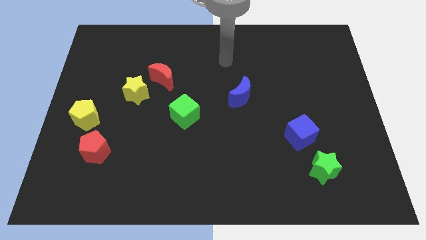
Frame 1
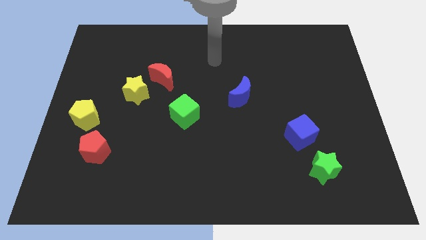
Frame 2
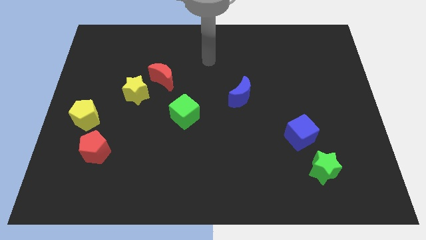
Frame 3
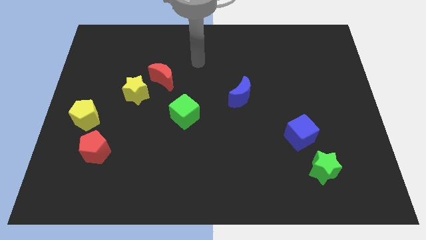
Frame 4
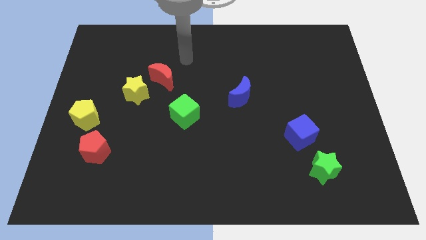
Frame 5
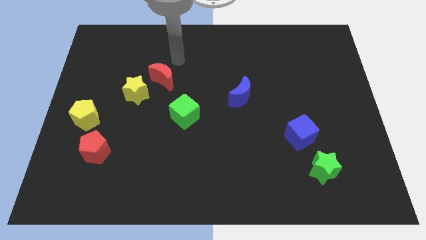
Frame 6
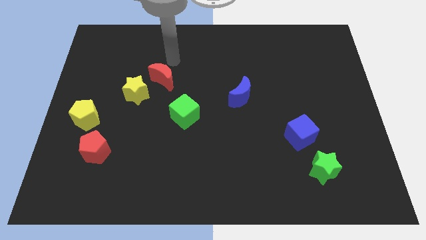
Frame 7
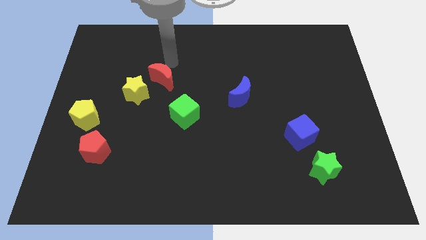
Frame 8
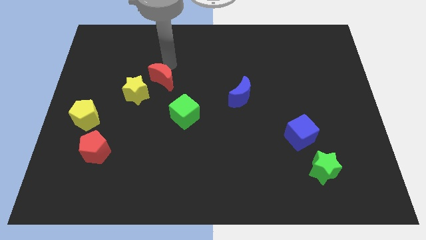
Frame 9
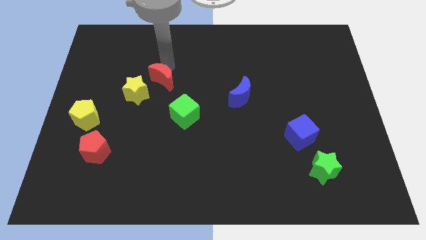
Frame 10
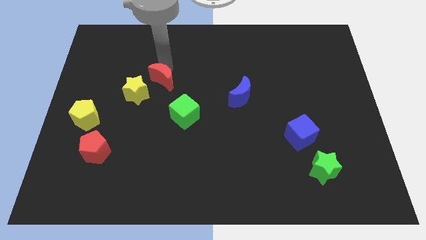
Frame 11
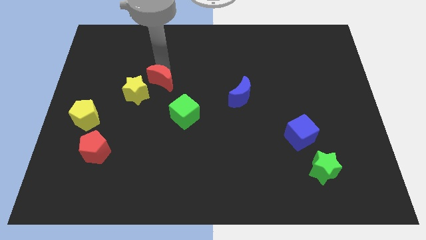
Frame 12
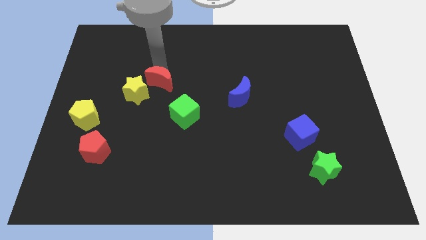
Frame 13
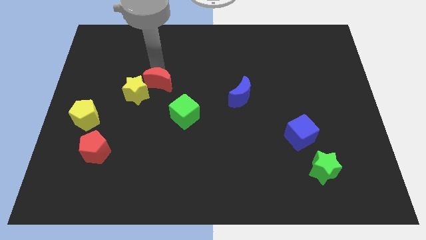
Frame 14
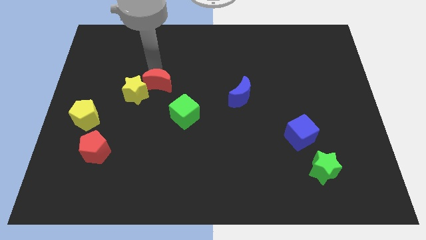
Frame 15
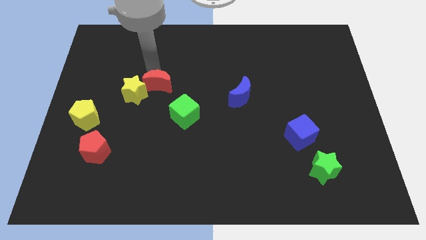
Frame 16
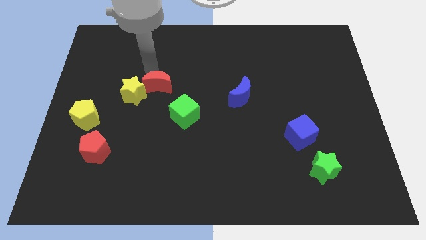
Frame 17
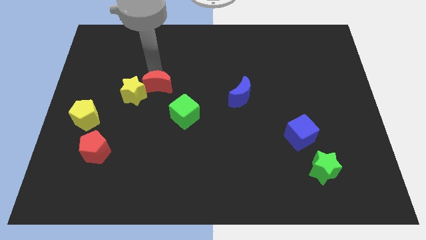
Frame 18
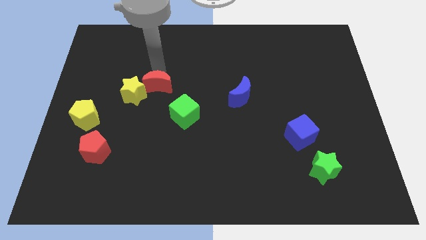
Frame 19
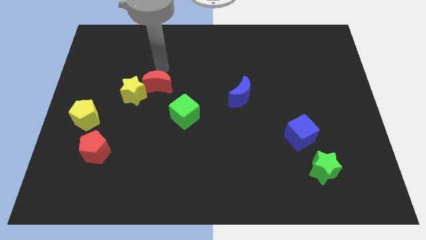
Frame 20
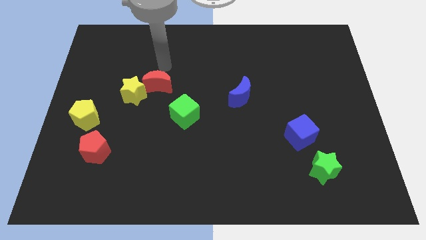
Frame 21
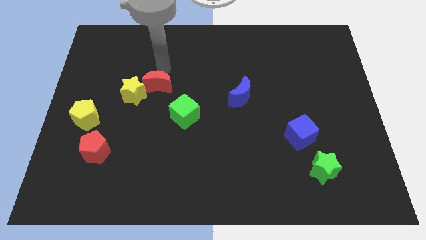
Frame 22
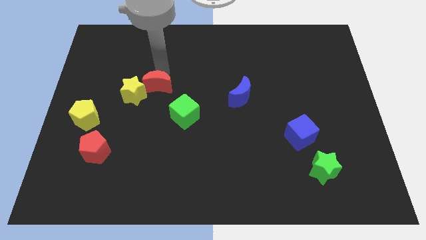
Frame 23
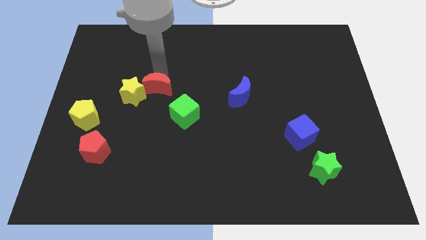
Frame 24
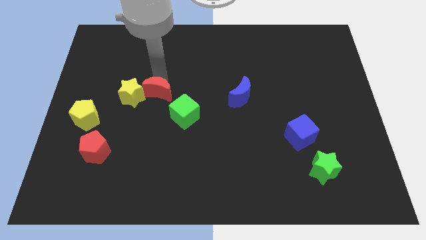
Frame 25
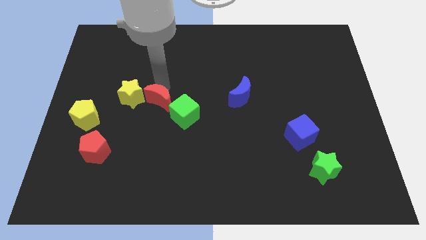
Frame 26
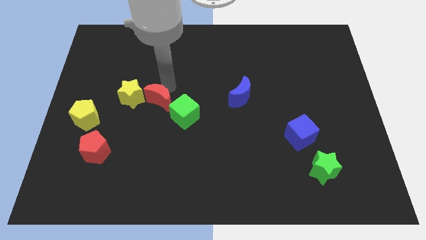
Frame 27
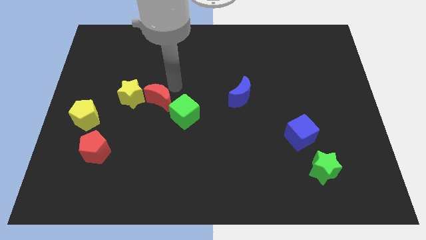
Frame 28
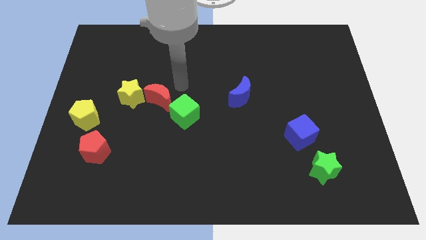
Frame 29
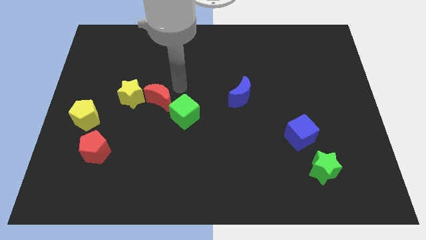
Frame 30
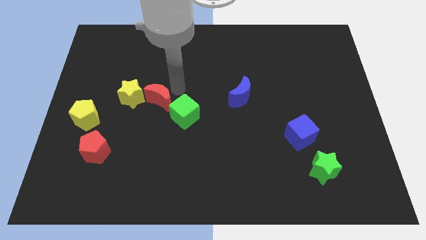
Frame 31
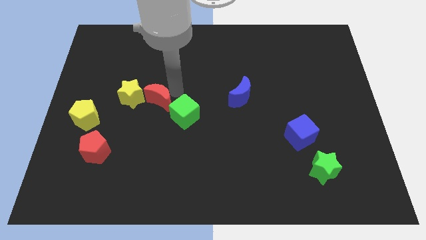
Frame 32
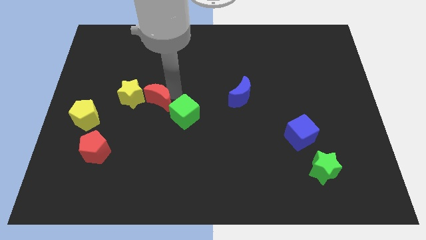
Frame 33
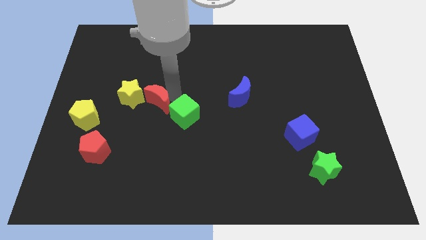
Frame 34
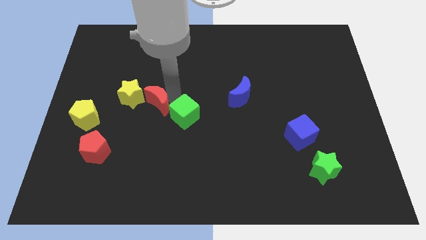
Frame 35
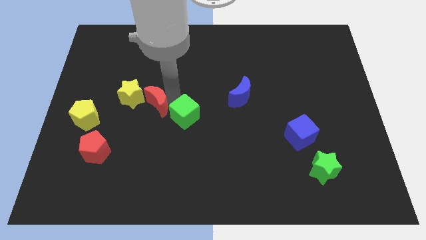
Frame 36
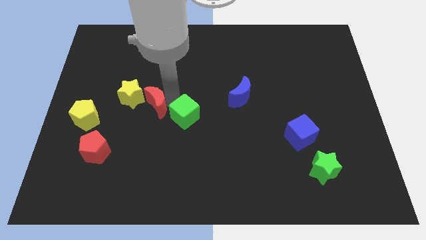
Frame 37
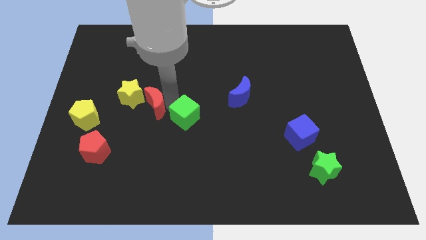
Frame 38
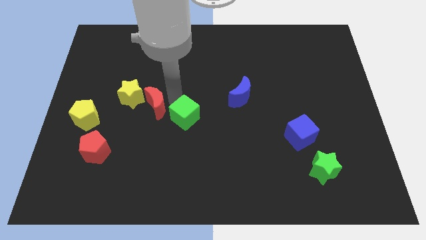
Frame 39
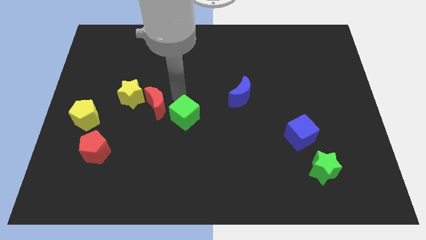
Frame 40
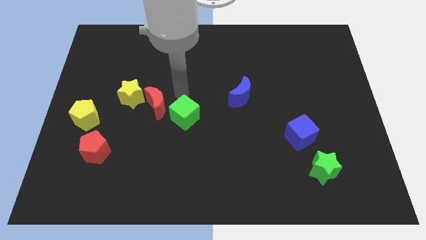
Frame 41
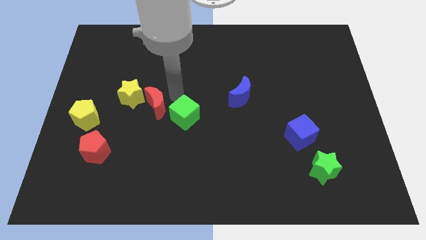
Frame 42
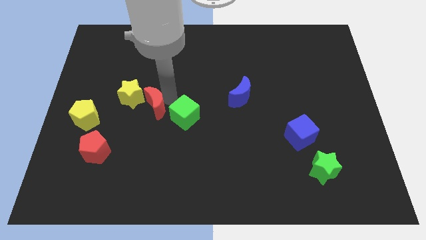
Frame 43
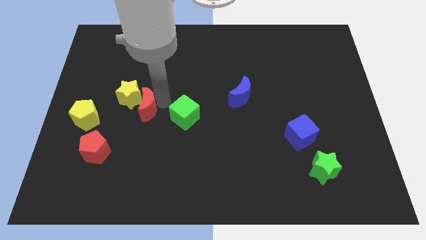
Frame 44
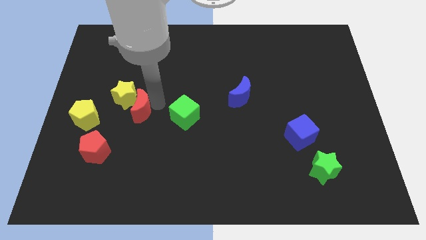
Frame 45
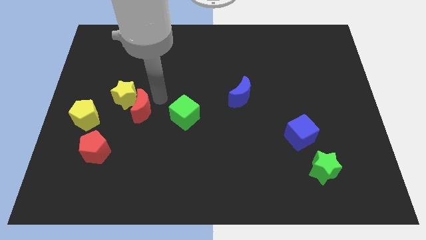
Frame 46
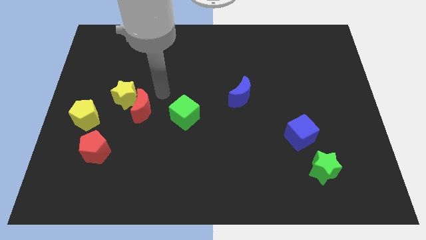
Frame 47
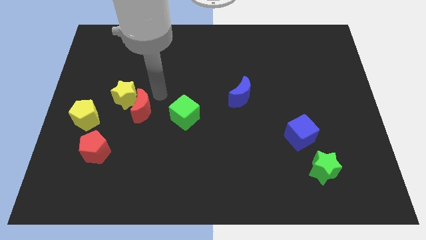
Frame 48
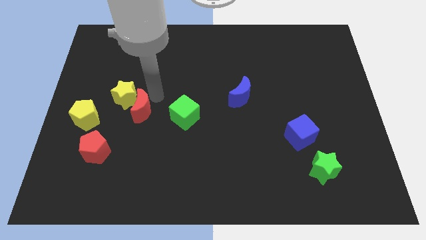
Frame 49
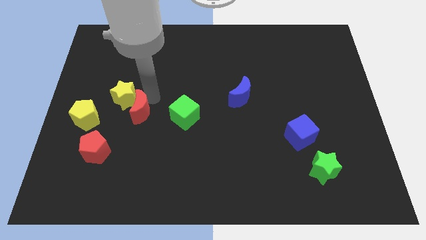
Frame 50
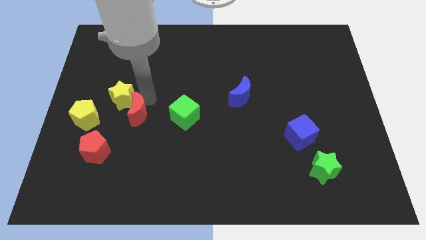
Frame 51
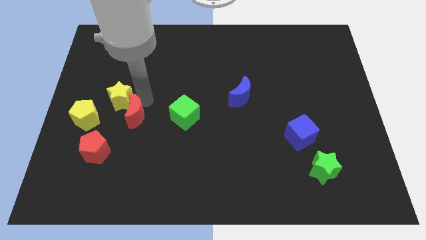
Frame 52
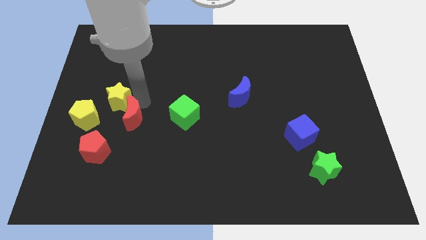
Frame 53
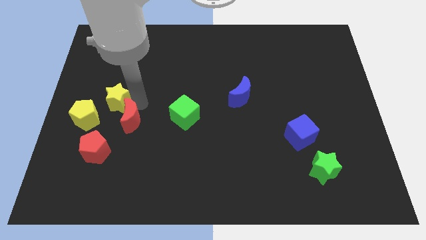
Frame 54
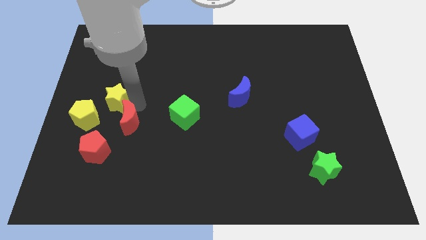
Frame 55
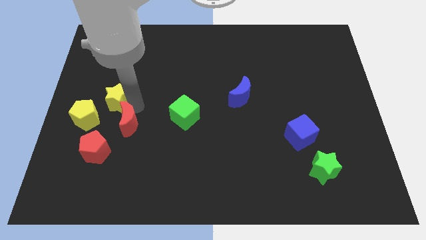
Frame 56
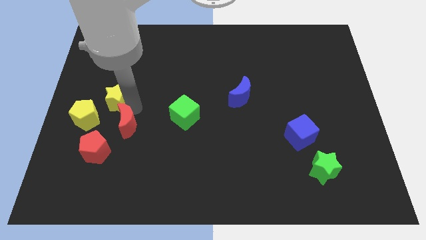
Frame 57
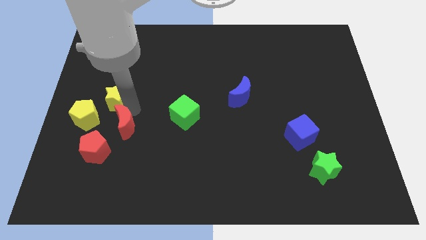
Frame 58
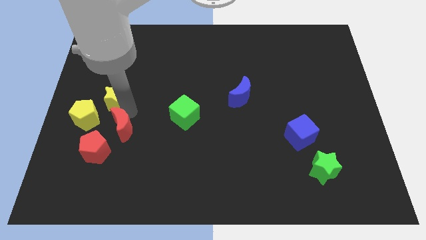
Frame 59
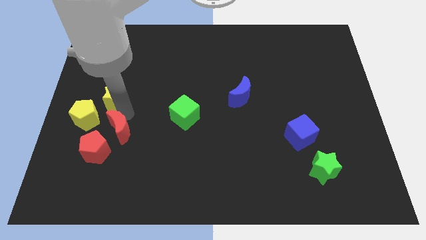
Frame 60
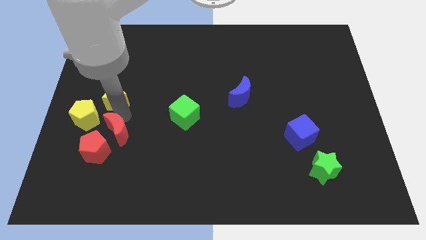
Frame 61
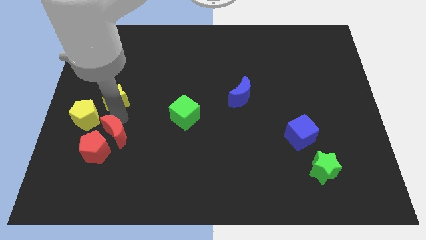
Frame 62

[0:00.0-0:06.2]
put the red moon to the red pentagon

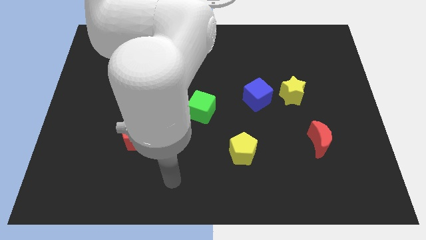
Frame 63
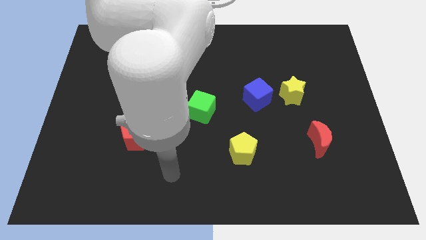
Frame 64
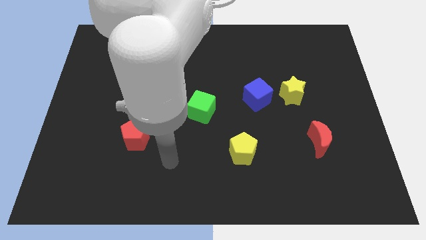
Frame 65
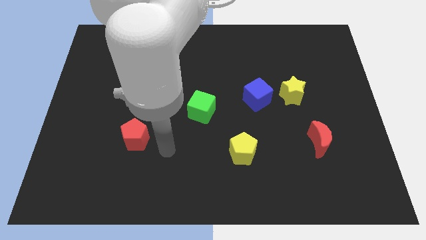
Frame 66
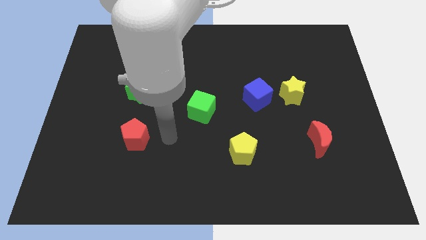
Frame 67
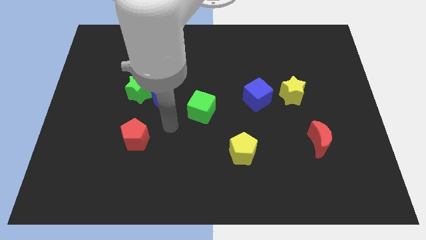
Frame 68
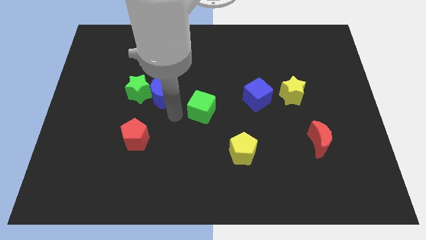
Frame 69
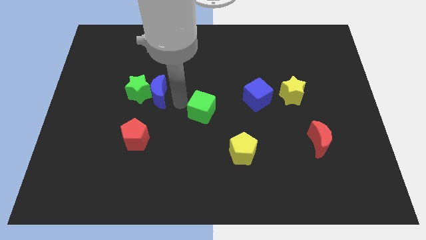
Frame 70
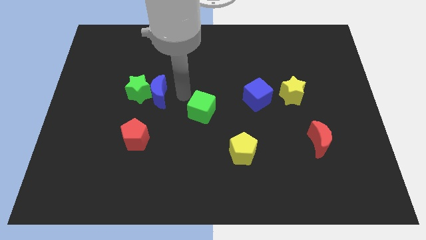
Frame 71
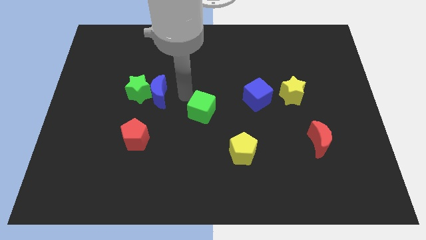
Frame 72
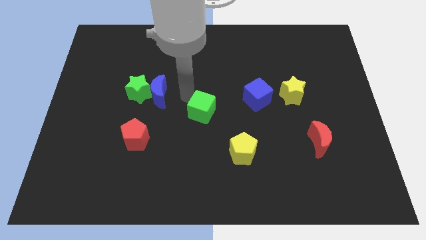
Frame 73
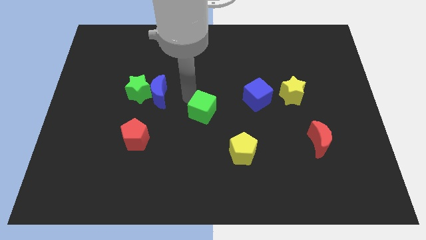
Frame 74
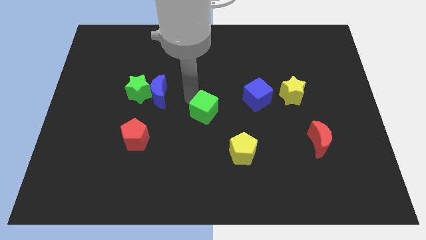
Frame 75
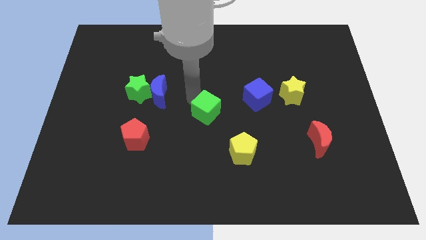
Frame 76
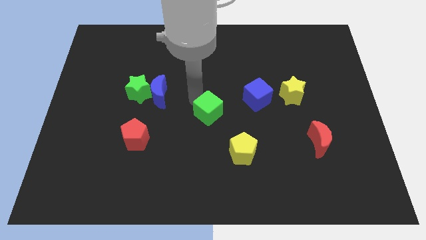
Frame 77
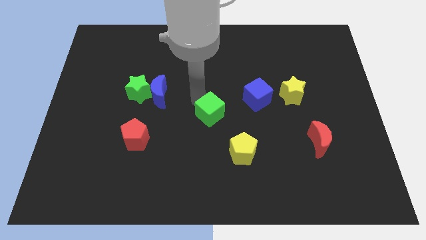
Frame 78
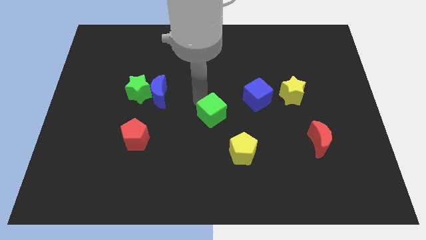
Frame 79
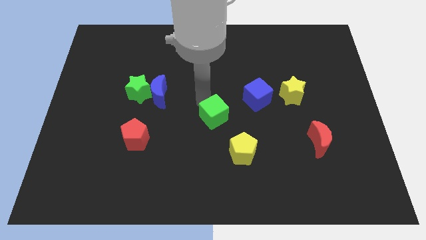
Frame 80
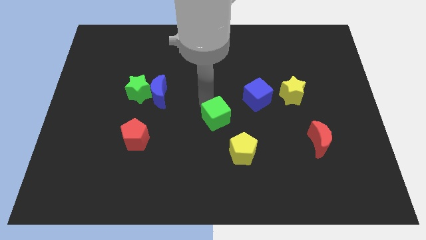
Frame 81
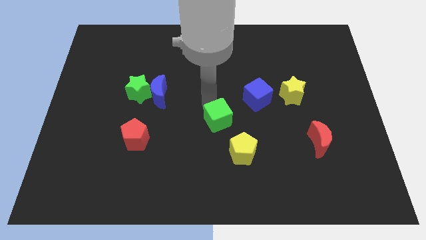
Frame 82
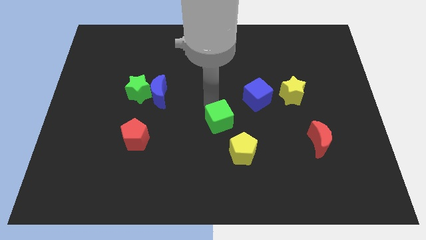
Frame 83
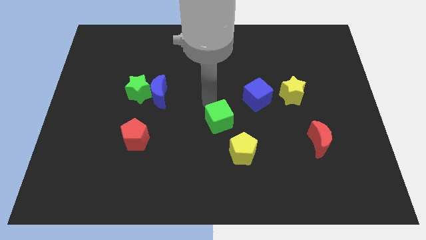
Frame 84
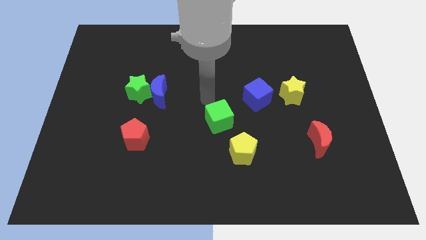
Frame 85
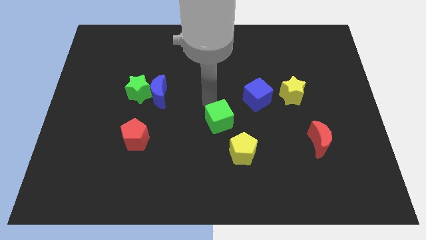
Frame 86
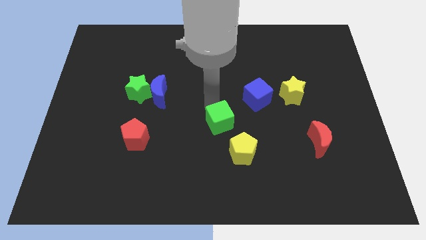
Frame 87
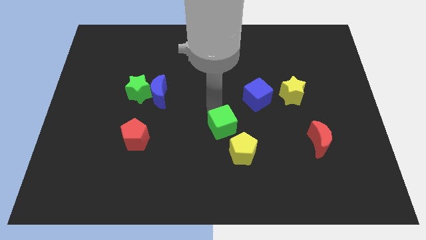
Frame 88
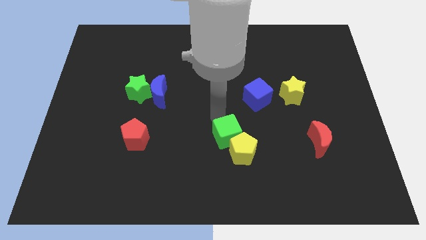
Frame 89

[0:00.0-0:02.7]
slide the green cube close to the yellow pentagon
